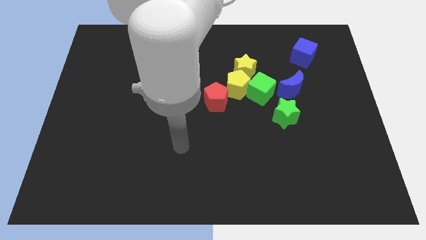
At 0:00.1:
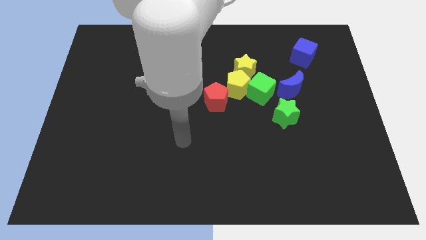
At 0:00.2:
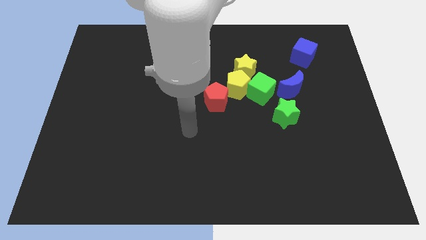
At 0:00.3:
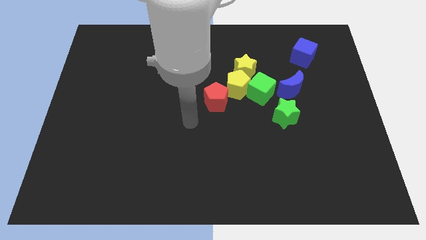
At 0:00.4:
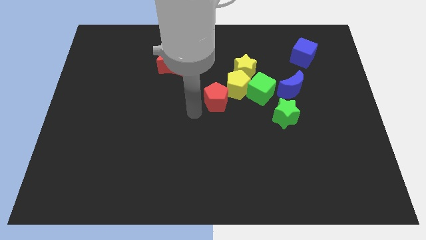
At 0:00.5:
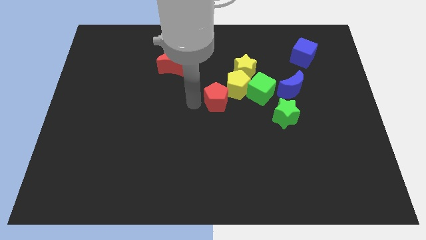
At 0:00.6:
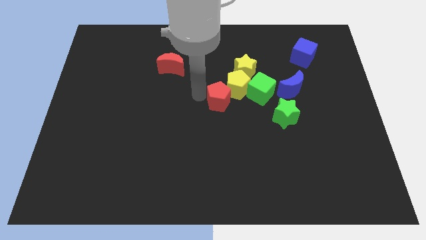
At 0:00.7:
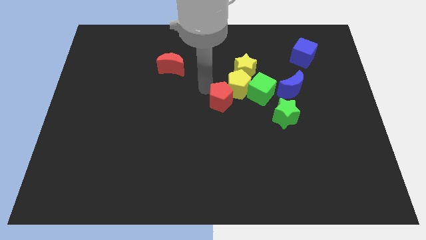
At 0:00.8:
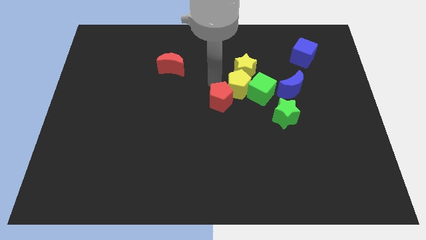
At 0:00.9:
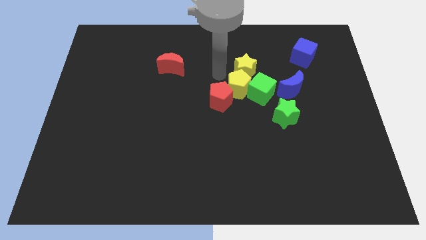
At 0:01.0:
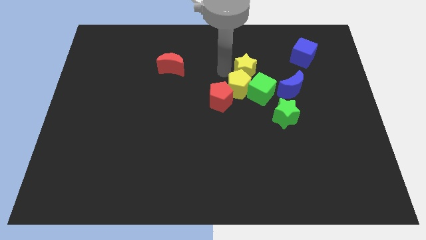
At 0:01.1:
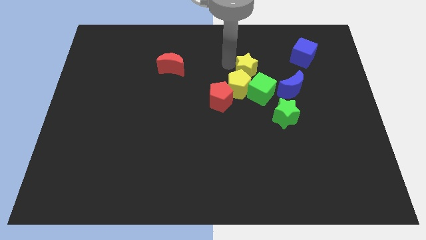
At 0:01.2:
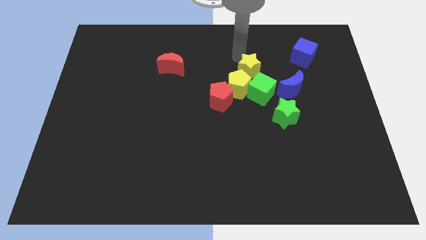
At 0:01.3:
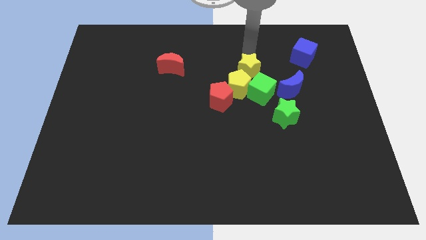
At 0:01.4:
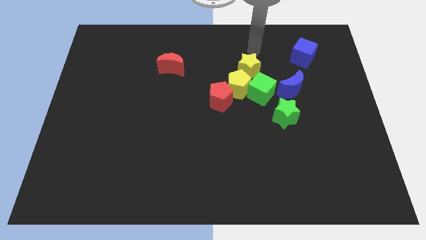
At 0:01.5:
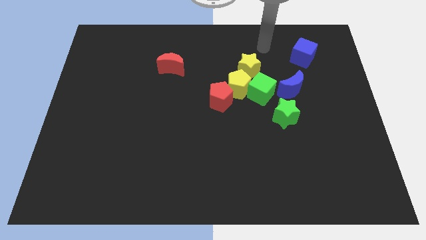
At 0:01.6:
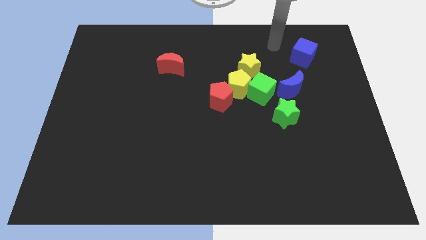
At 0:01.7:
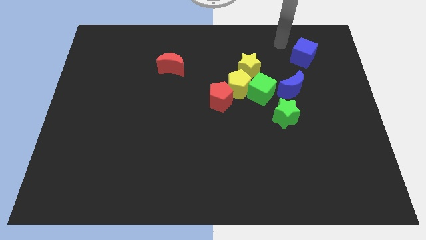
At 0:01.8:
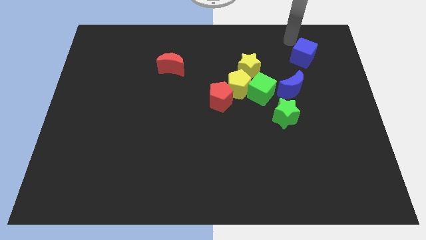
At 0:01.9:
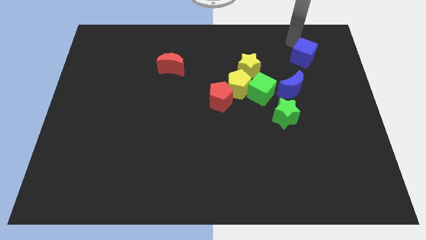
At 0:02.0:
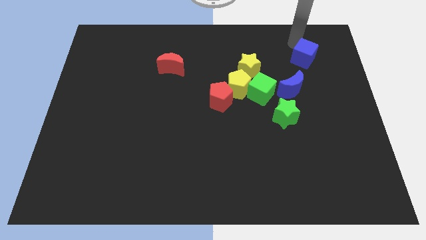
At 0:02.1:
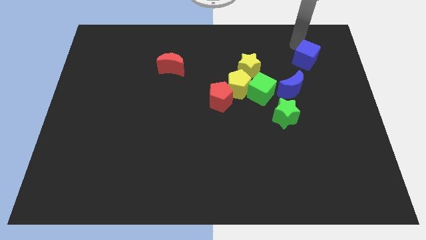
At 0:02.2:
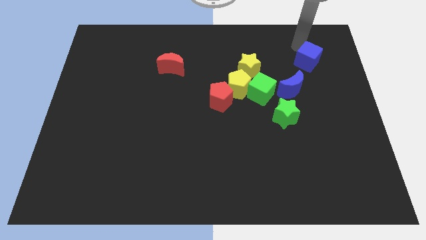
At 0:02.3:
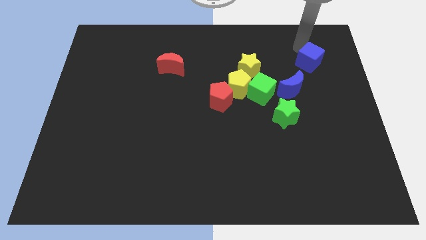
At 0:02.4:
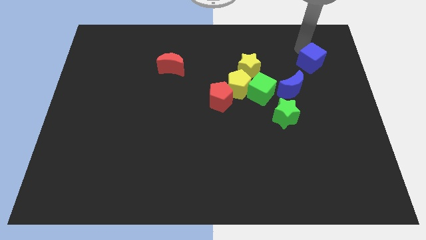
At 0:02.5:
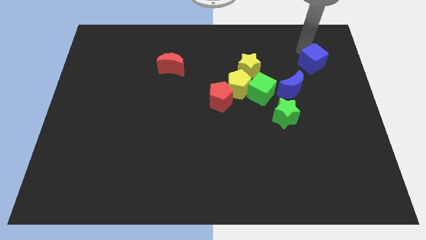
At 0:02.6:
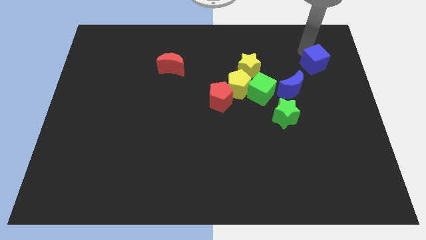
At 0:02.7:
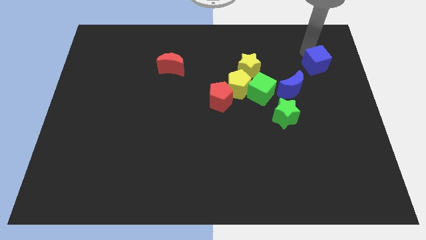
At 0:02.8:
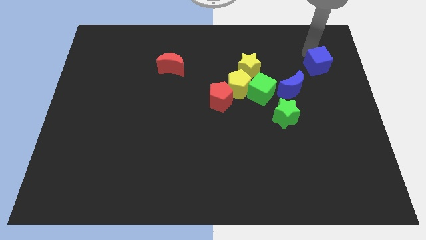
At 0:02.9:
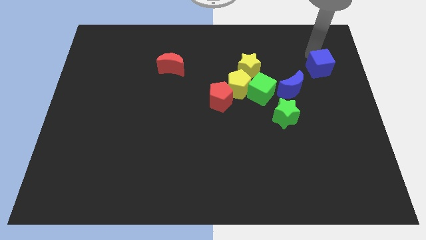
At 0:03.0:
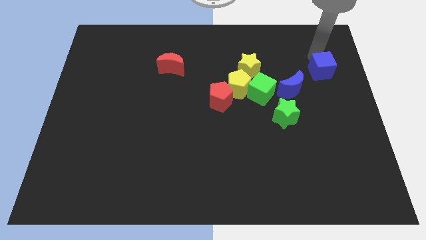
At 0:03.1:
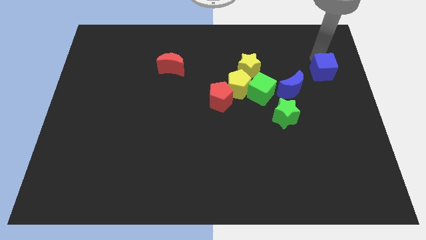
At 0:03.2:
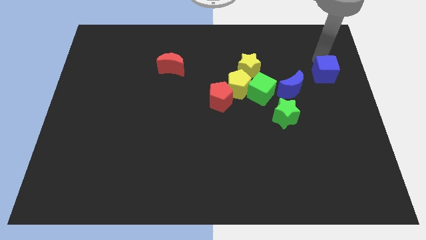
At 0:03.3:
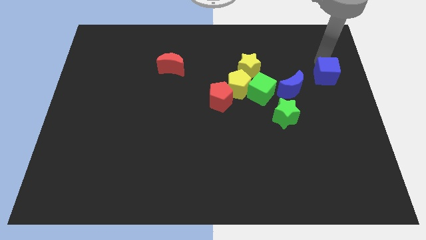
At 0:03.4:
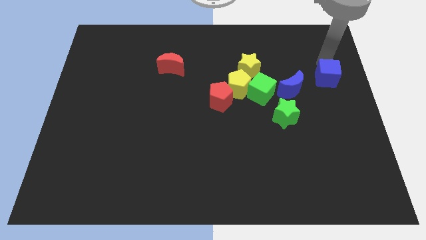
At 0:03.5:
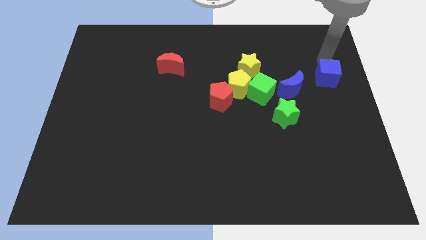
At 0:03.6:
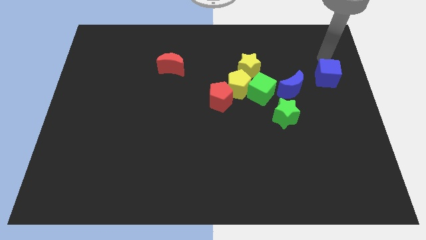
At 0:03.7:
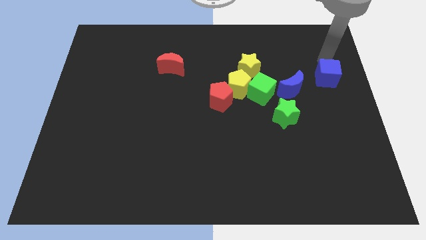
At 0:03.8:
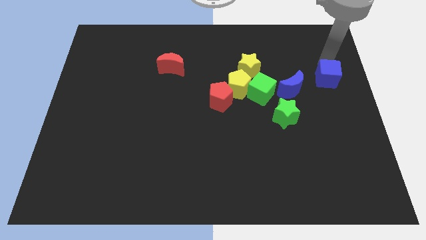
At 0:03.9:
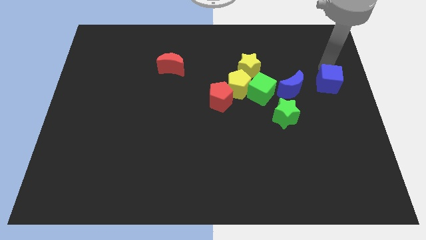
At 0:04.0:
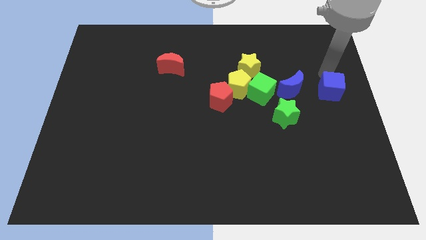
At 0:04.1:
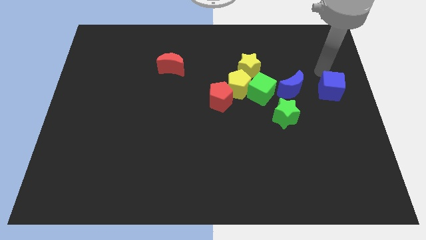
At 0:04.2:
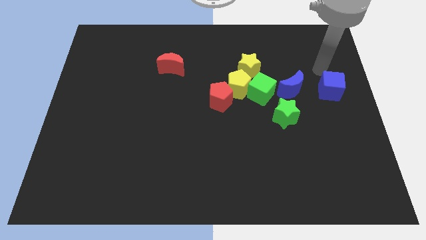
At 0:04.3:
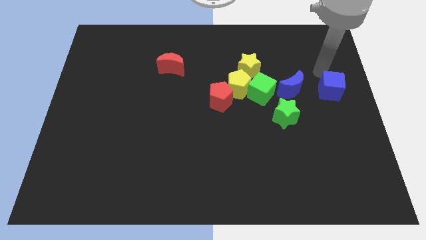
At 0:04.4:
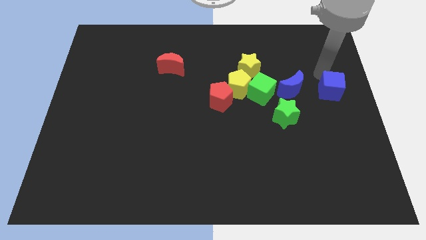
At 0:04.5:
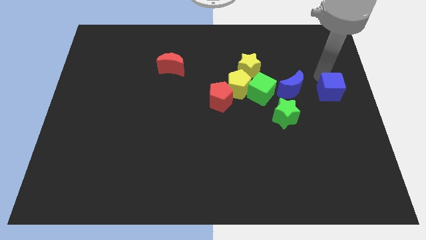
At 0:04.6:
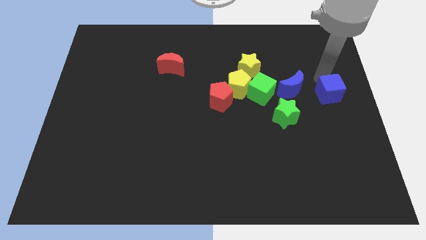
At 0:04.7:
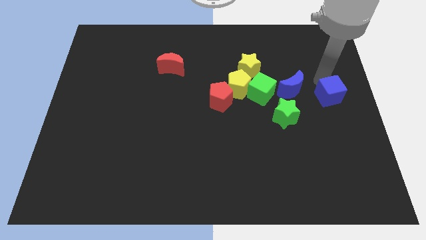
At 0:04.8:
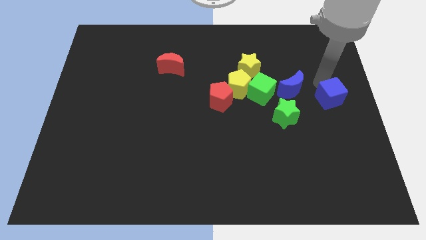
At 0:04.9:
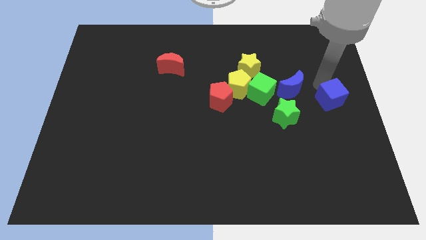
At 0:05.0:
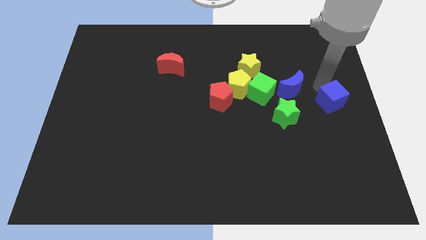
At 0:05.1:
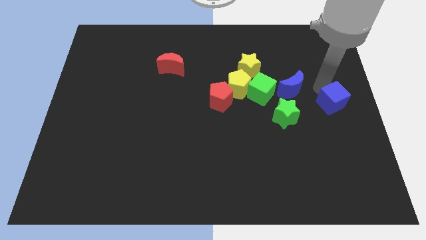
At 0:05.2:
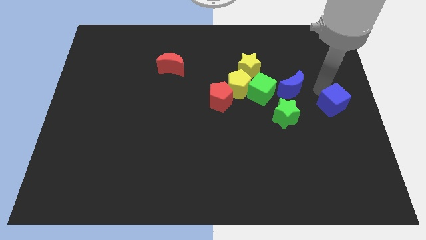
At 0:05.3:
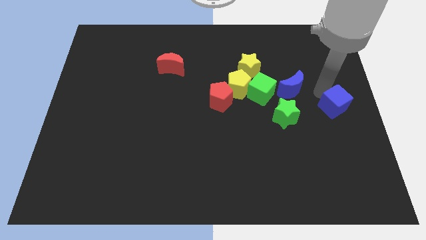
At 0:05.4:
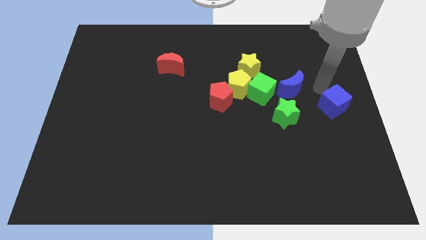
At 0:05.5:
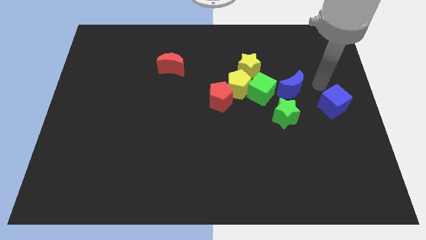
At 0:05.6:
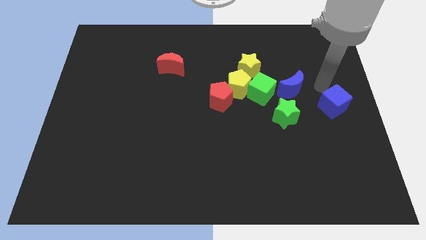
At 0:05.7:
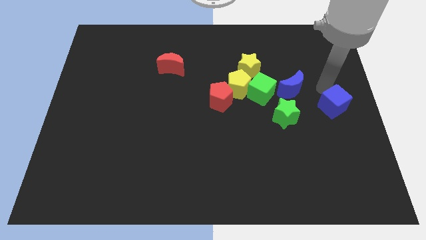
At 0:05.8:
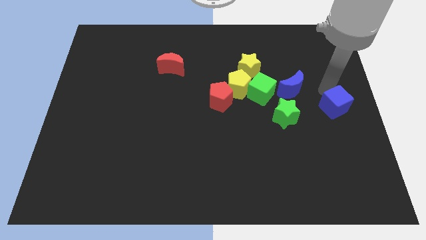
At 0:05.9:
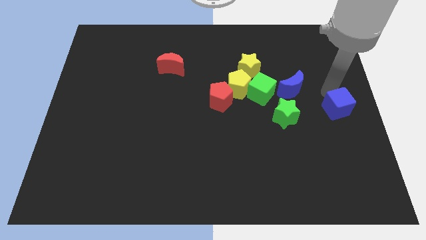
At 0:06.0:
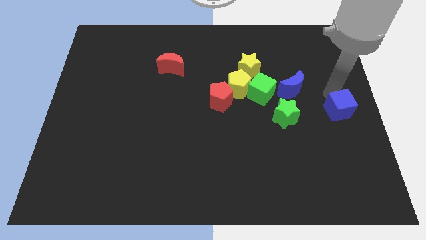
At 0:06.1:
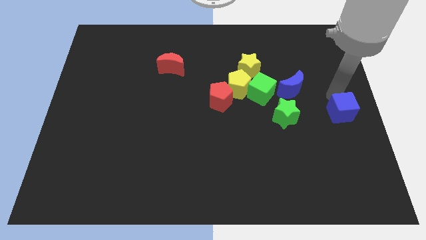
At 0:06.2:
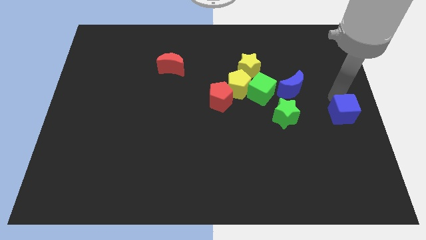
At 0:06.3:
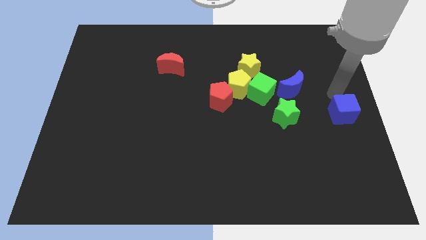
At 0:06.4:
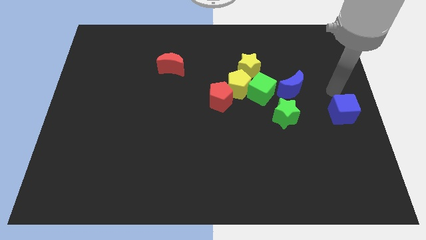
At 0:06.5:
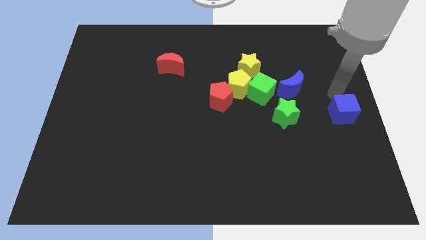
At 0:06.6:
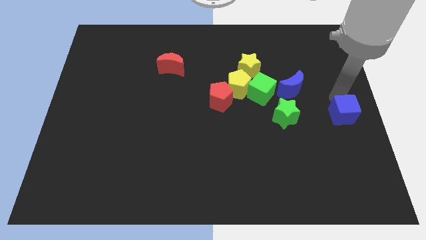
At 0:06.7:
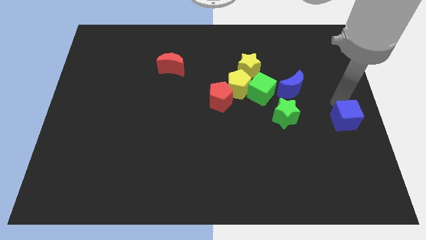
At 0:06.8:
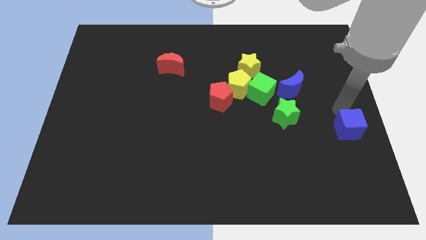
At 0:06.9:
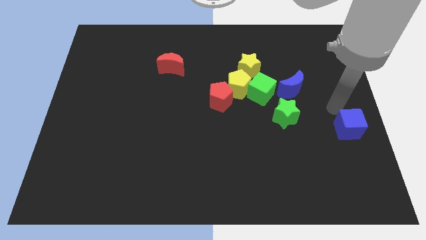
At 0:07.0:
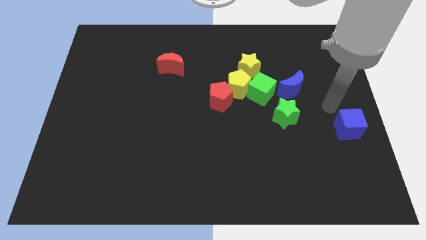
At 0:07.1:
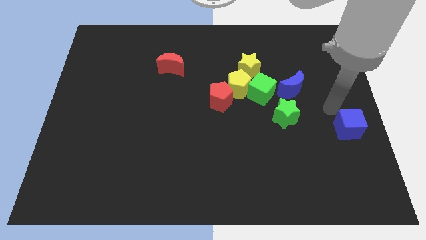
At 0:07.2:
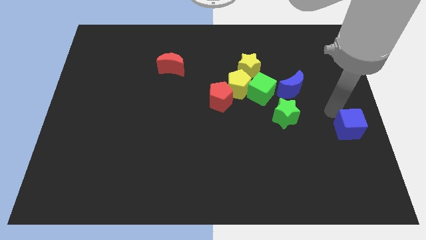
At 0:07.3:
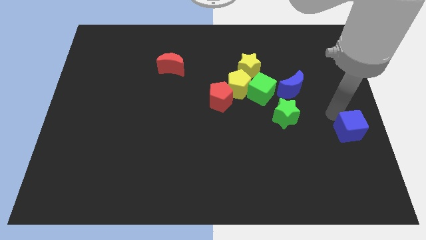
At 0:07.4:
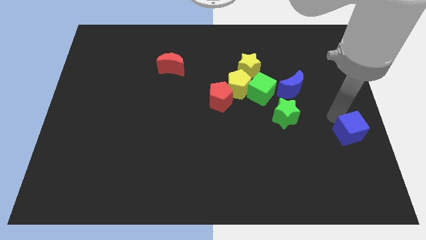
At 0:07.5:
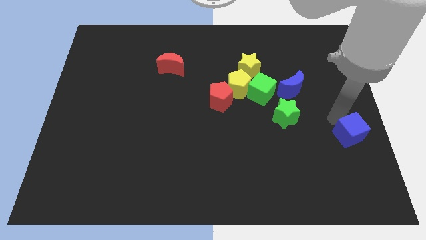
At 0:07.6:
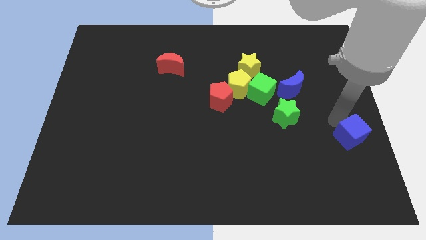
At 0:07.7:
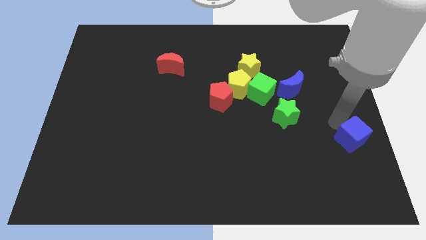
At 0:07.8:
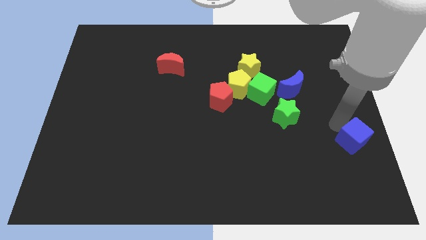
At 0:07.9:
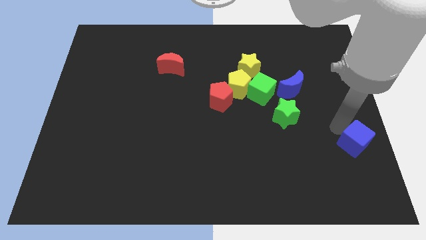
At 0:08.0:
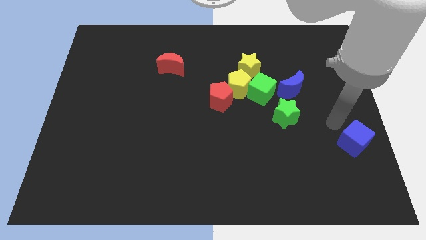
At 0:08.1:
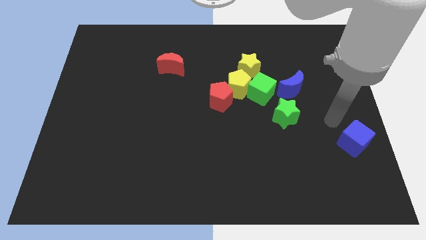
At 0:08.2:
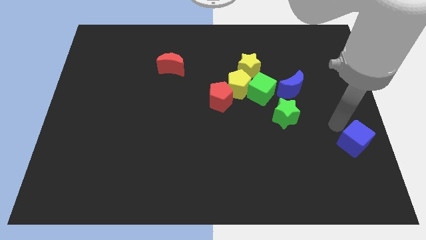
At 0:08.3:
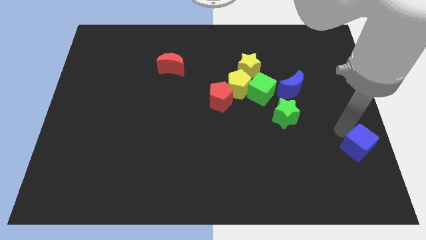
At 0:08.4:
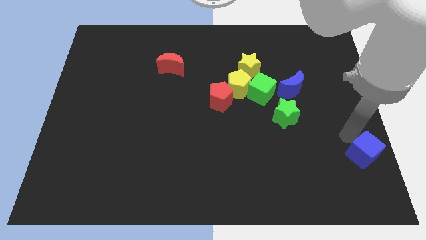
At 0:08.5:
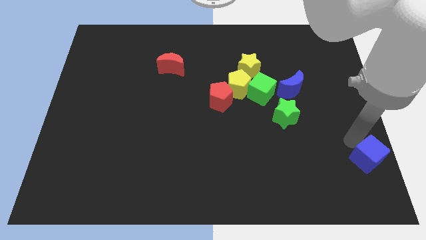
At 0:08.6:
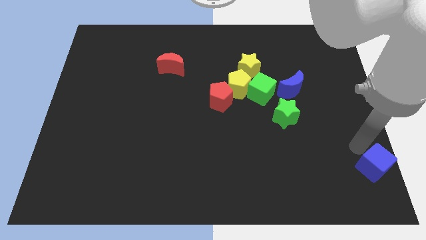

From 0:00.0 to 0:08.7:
put the blue cube to the bottom right
